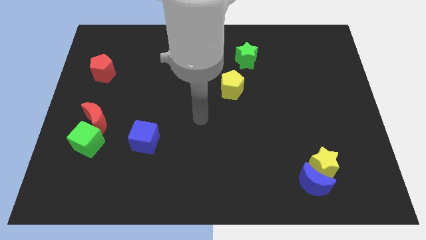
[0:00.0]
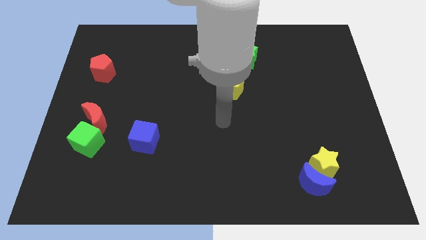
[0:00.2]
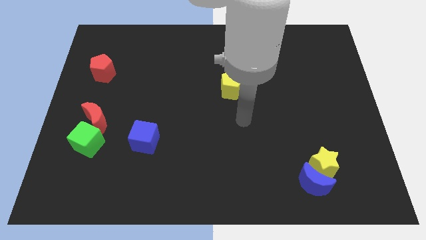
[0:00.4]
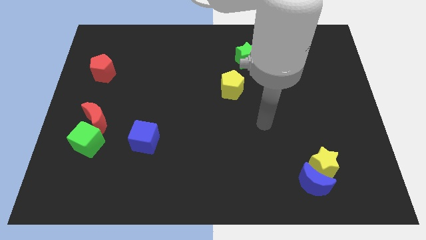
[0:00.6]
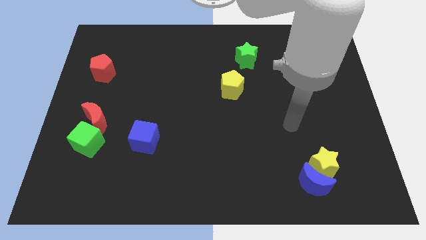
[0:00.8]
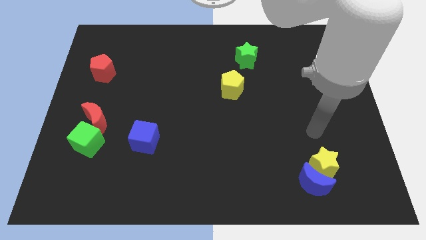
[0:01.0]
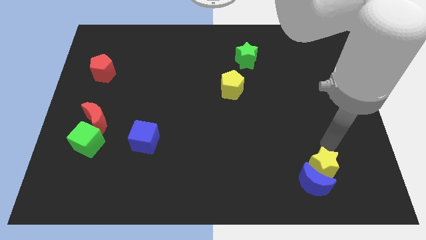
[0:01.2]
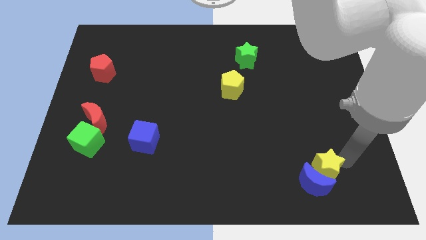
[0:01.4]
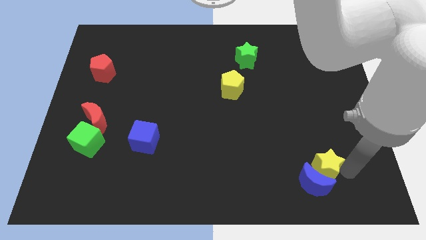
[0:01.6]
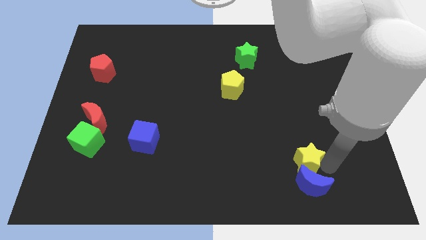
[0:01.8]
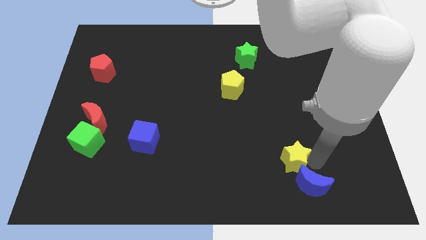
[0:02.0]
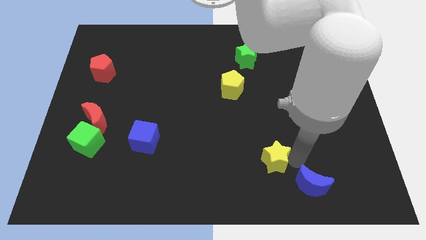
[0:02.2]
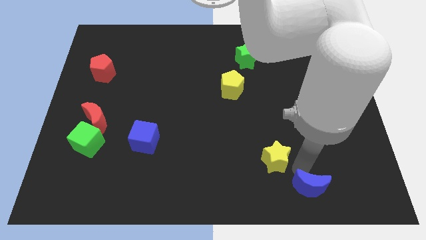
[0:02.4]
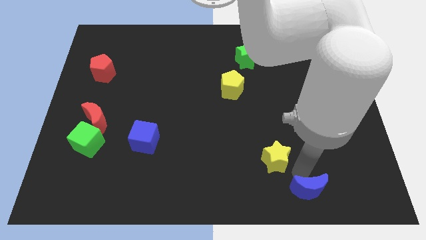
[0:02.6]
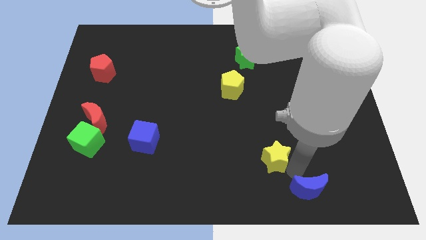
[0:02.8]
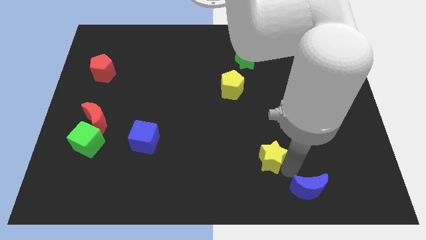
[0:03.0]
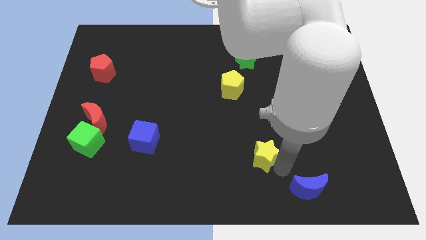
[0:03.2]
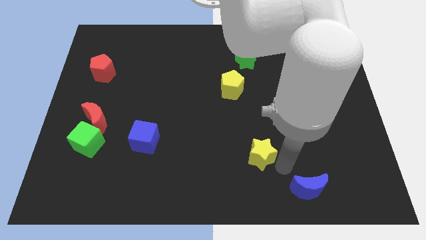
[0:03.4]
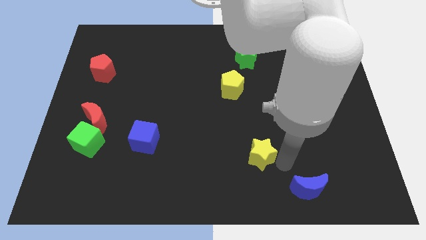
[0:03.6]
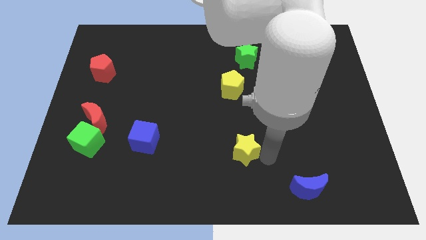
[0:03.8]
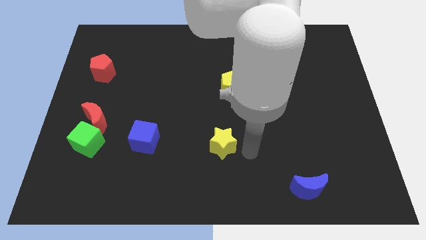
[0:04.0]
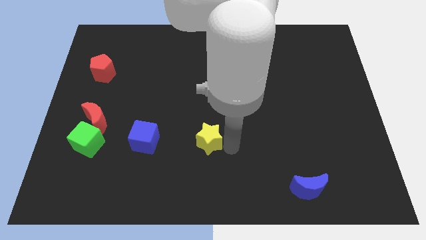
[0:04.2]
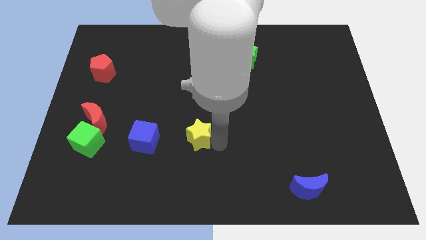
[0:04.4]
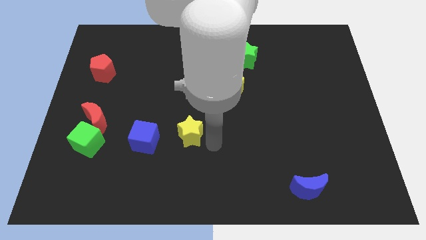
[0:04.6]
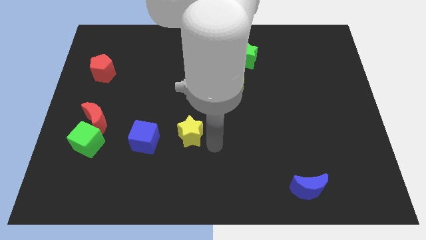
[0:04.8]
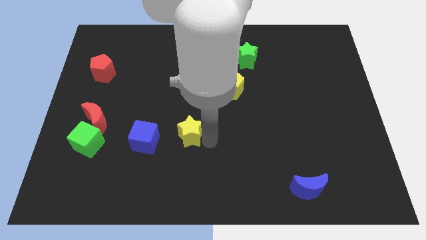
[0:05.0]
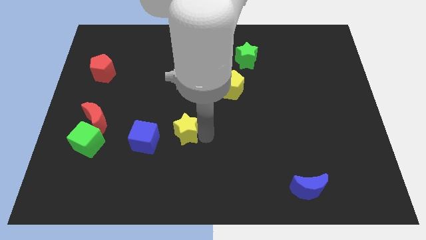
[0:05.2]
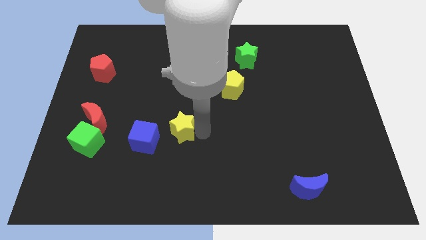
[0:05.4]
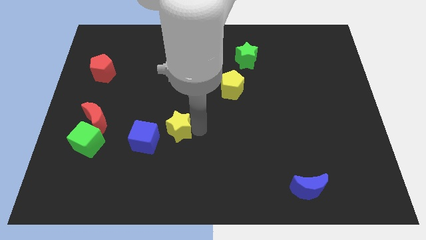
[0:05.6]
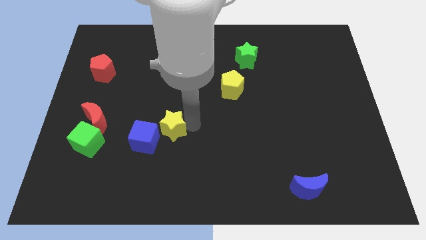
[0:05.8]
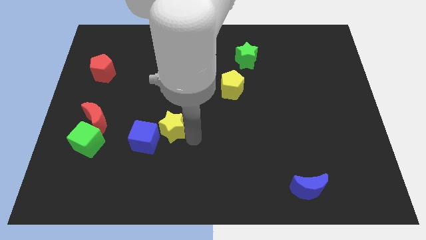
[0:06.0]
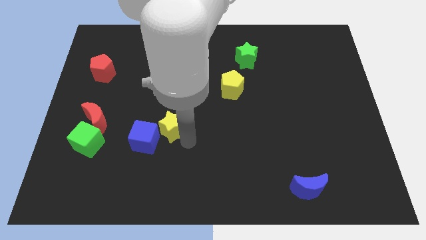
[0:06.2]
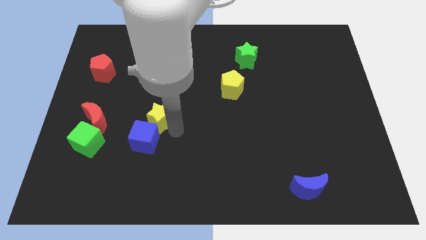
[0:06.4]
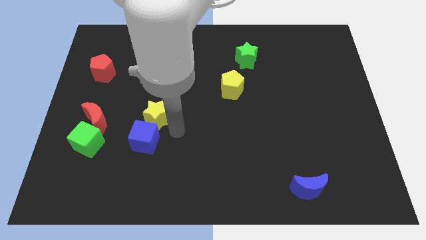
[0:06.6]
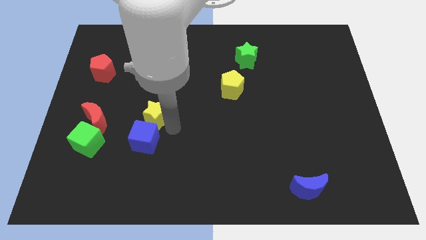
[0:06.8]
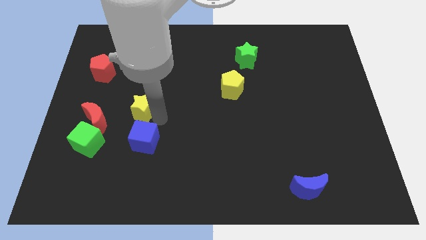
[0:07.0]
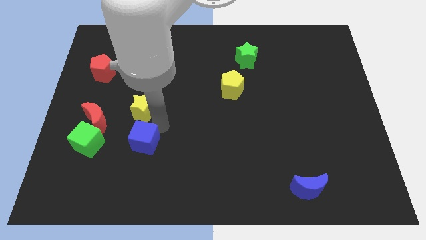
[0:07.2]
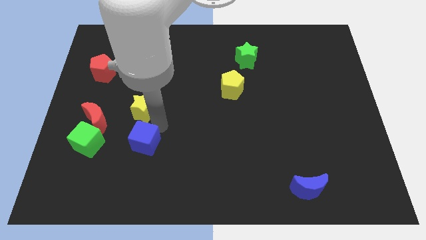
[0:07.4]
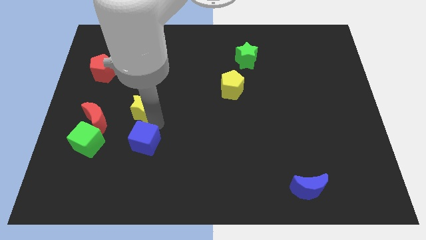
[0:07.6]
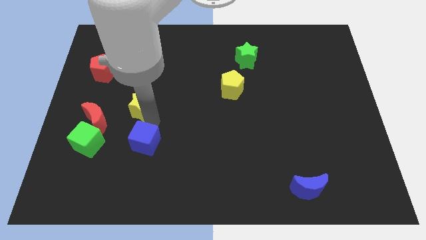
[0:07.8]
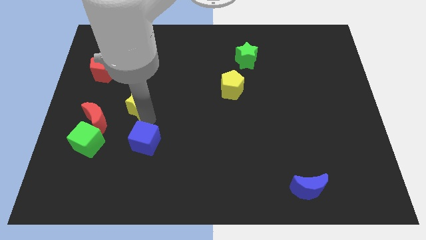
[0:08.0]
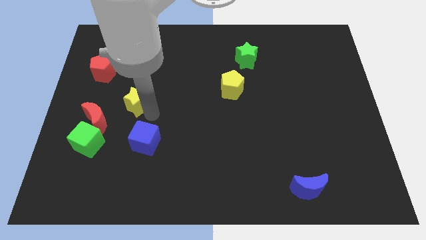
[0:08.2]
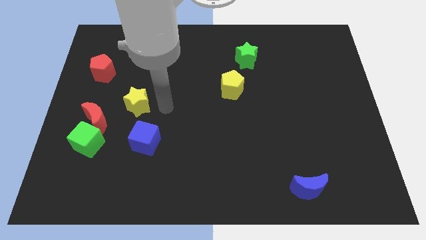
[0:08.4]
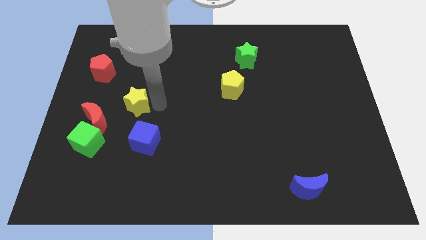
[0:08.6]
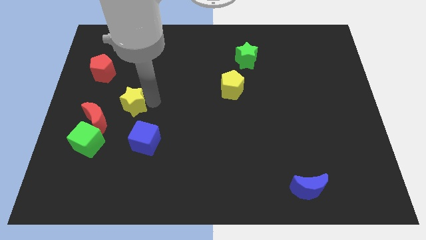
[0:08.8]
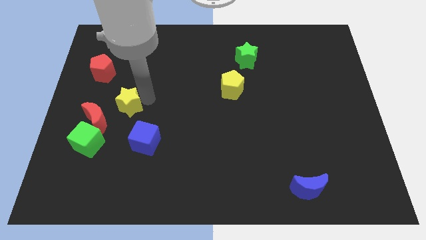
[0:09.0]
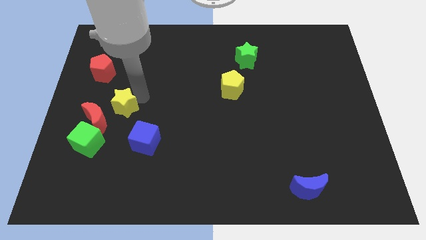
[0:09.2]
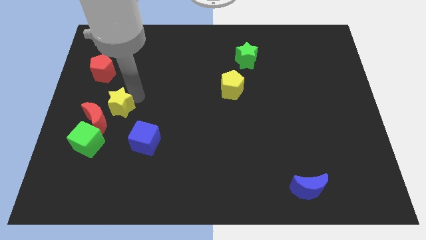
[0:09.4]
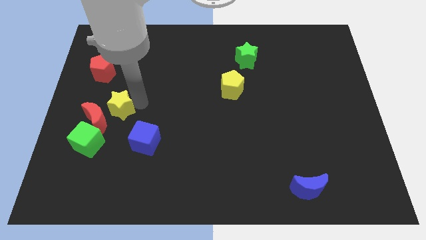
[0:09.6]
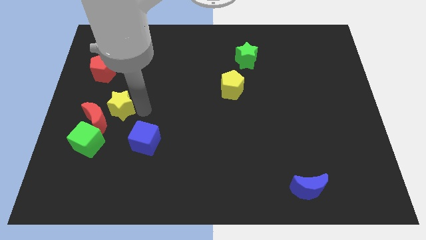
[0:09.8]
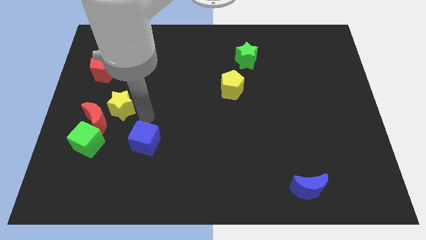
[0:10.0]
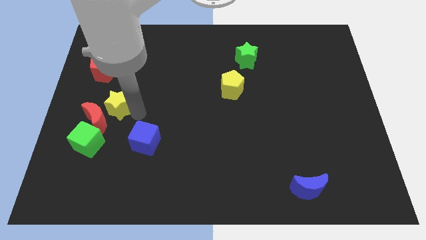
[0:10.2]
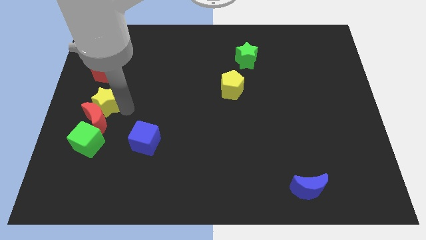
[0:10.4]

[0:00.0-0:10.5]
push the yellow star to the left side

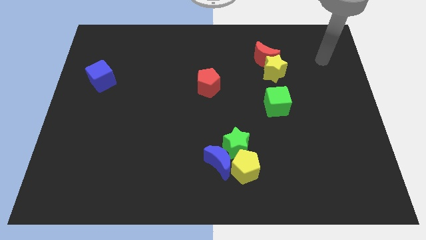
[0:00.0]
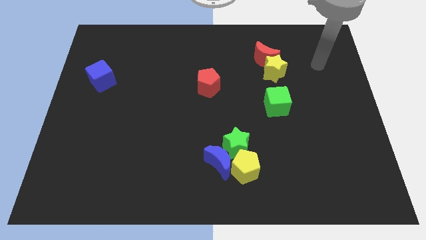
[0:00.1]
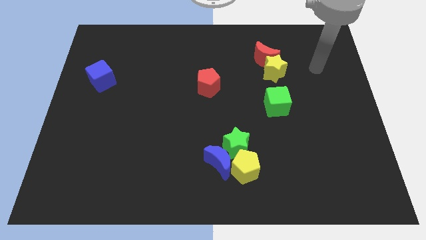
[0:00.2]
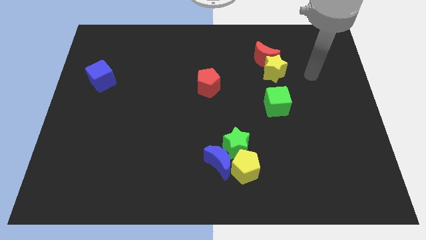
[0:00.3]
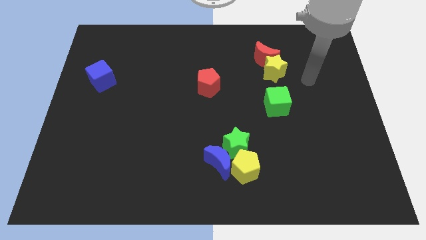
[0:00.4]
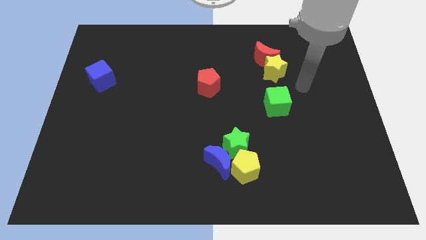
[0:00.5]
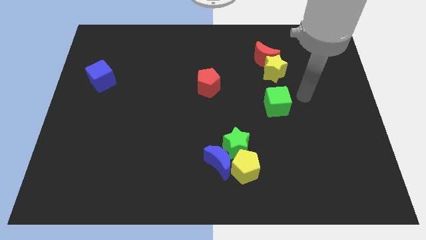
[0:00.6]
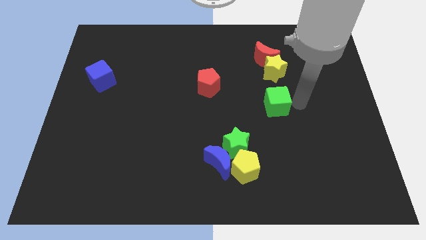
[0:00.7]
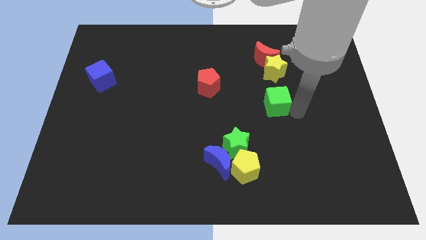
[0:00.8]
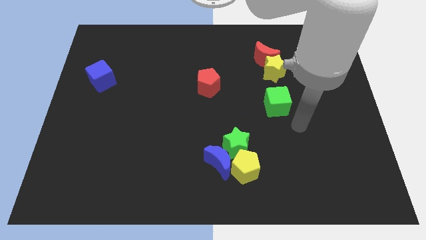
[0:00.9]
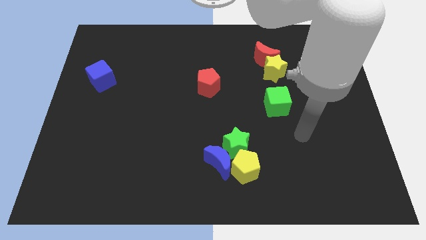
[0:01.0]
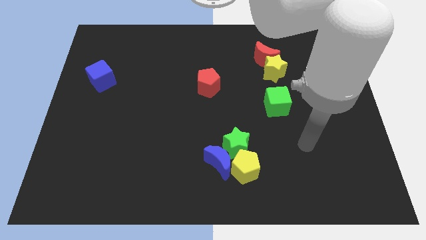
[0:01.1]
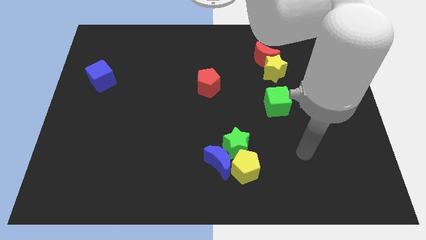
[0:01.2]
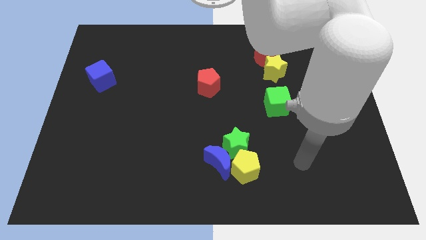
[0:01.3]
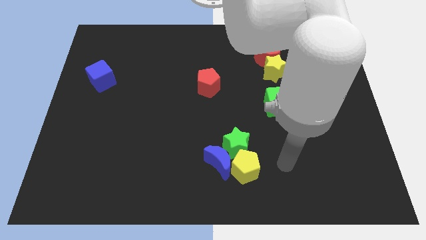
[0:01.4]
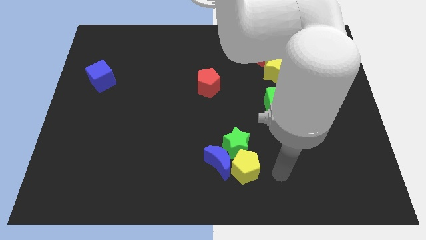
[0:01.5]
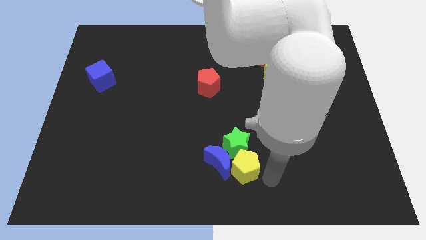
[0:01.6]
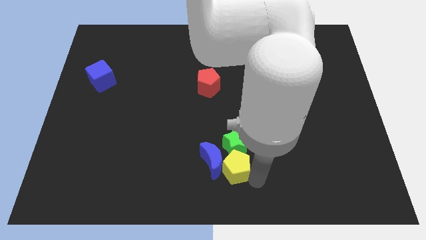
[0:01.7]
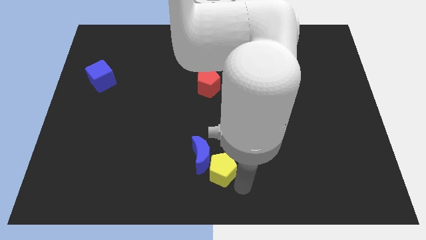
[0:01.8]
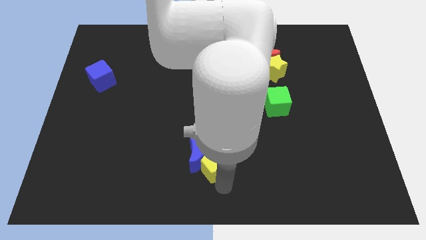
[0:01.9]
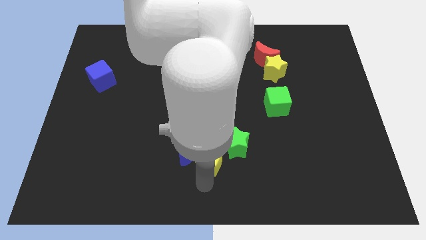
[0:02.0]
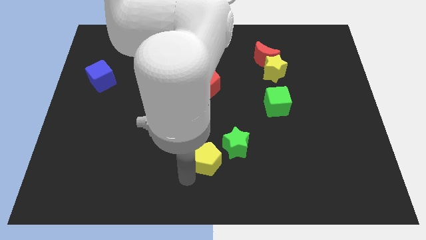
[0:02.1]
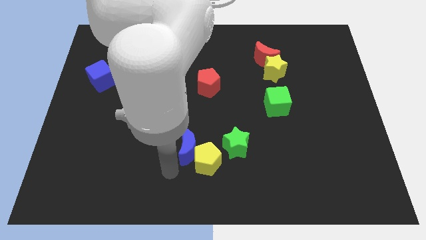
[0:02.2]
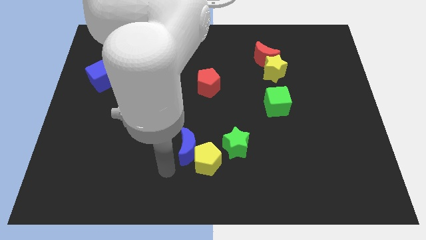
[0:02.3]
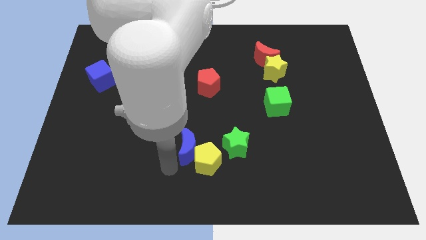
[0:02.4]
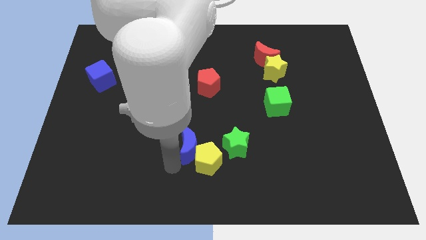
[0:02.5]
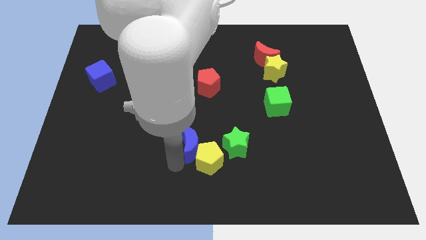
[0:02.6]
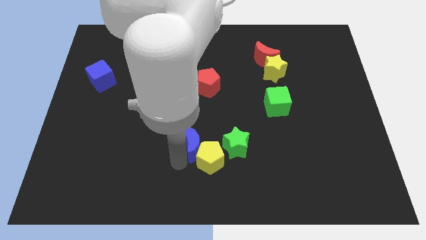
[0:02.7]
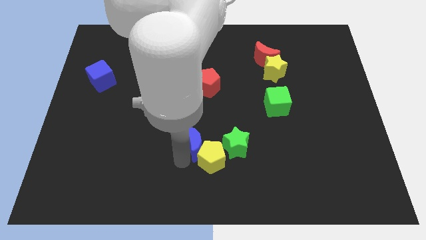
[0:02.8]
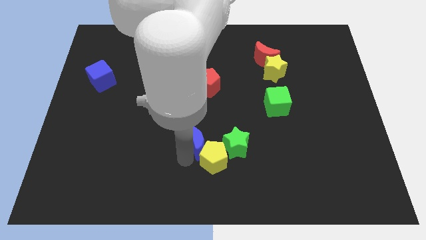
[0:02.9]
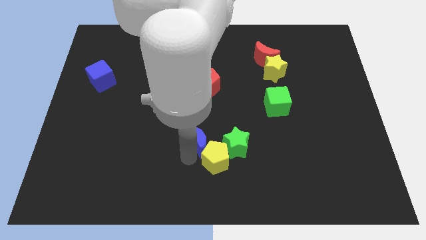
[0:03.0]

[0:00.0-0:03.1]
put the blue moon to the center of the board
